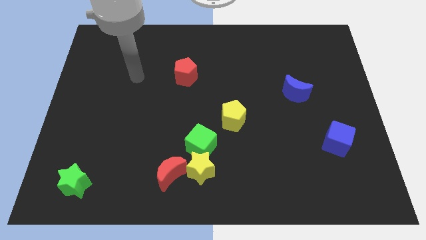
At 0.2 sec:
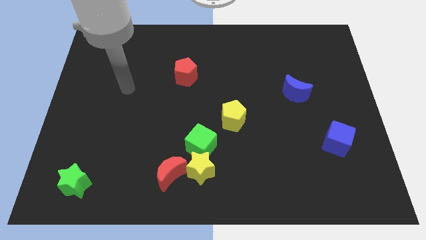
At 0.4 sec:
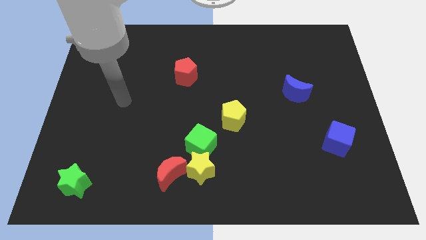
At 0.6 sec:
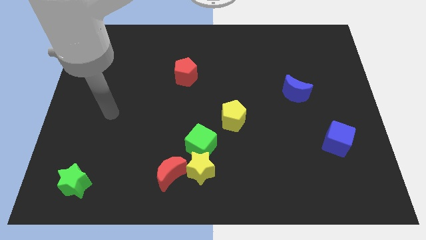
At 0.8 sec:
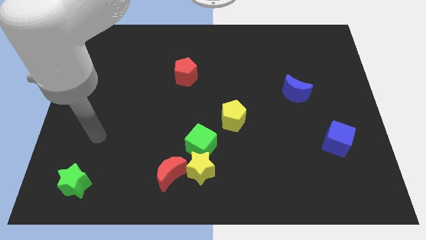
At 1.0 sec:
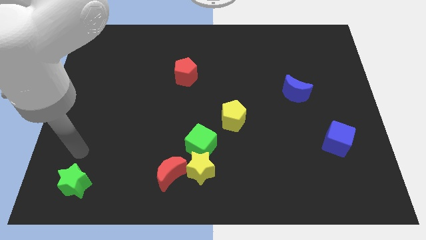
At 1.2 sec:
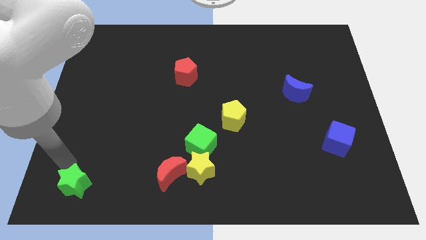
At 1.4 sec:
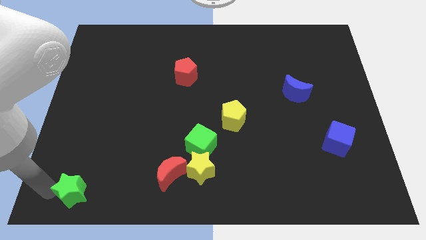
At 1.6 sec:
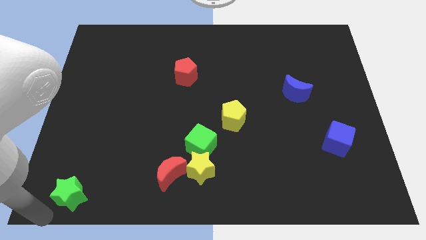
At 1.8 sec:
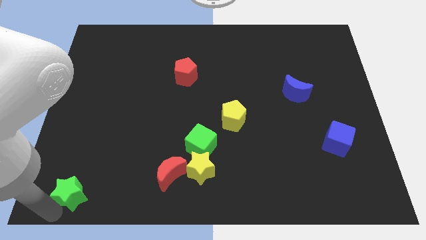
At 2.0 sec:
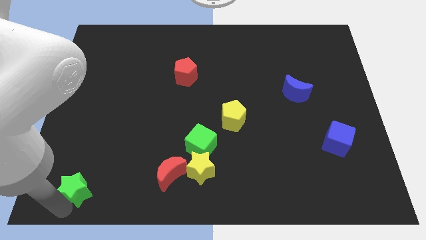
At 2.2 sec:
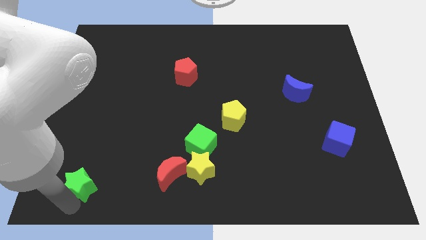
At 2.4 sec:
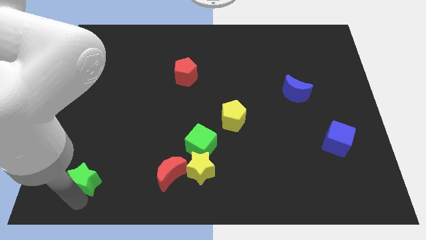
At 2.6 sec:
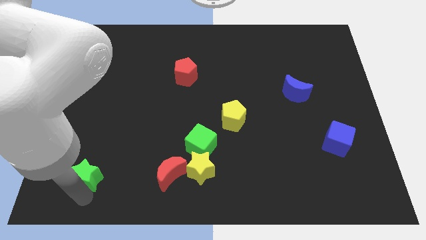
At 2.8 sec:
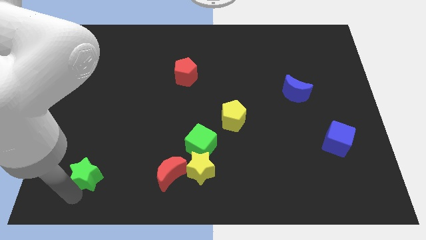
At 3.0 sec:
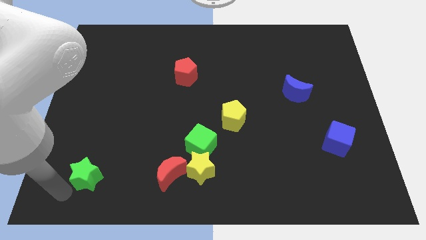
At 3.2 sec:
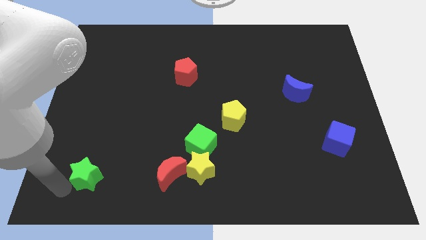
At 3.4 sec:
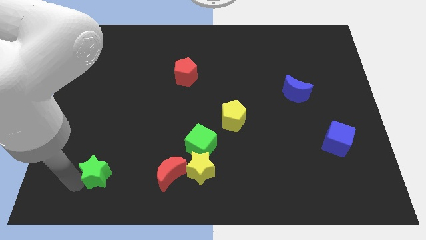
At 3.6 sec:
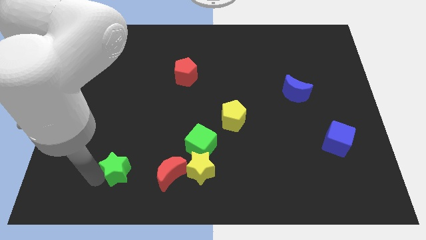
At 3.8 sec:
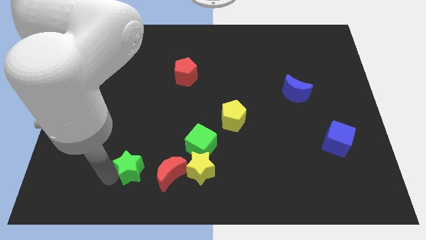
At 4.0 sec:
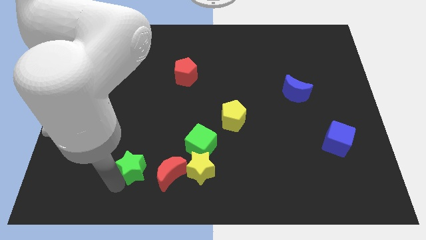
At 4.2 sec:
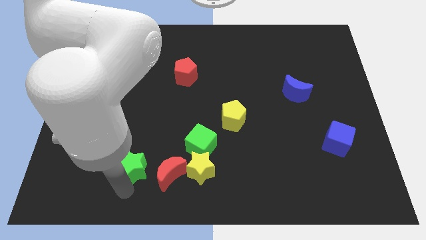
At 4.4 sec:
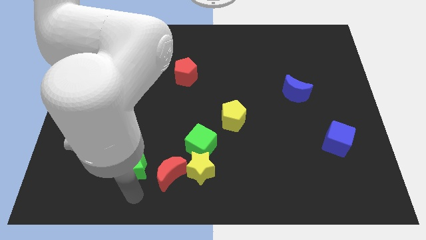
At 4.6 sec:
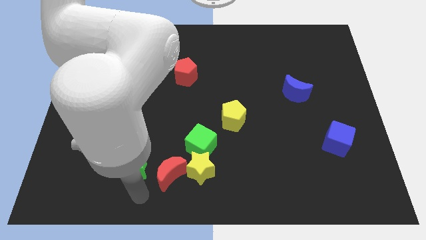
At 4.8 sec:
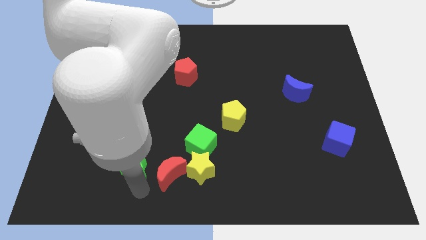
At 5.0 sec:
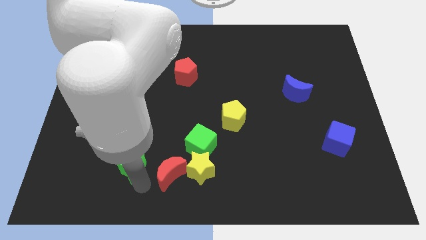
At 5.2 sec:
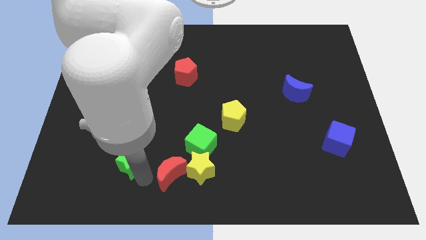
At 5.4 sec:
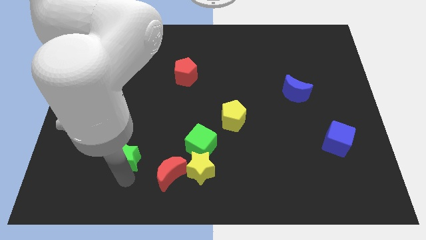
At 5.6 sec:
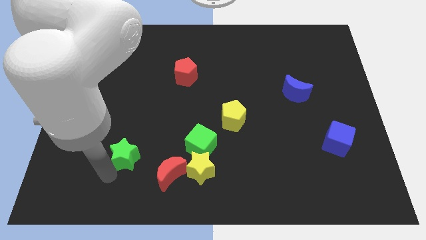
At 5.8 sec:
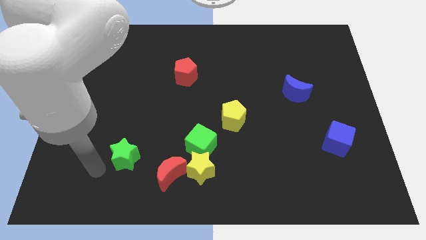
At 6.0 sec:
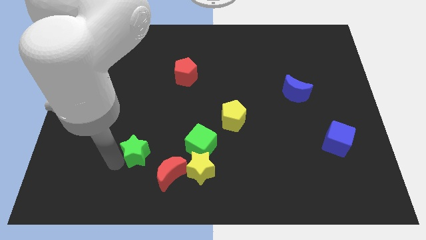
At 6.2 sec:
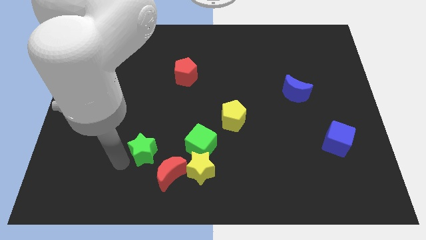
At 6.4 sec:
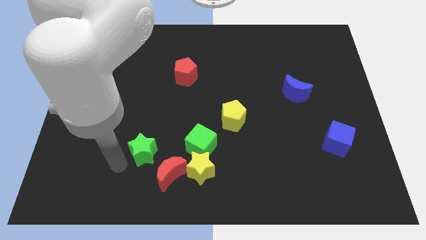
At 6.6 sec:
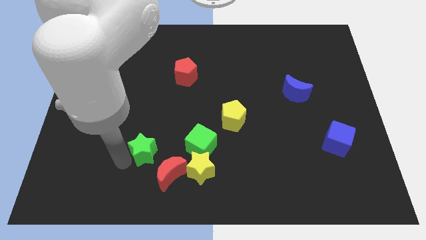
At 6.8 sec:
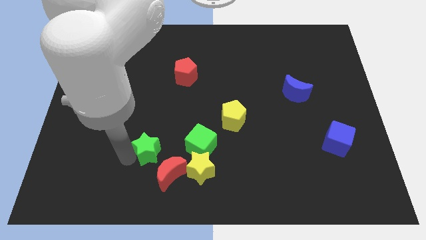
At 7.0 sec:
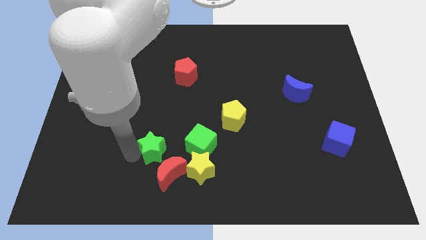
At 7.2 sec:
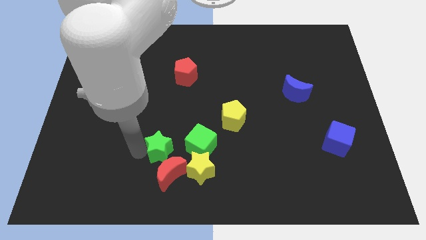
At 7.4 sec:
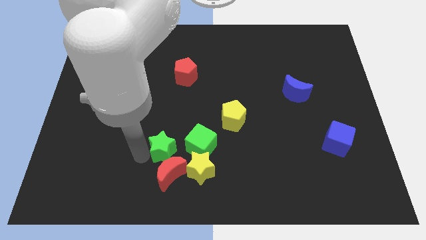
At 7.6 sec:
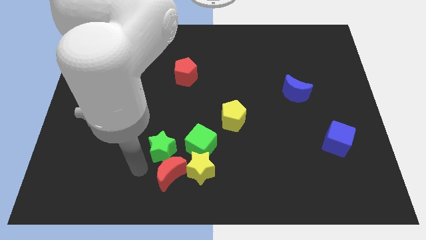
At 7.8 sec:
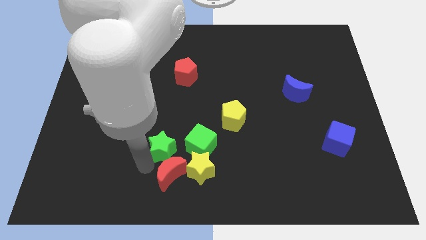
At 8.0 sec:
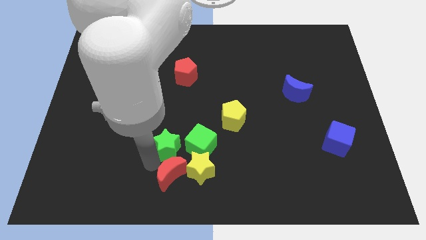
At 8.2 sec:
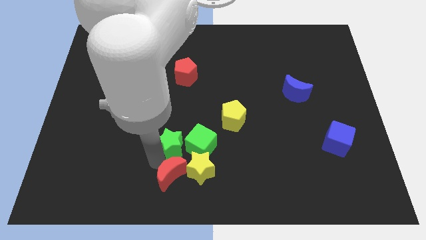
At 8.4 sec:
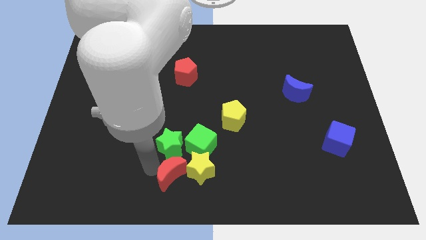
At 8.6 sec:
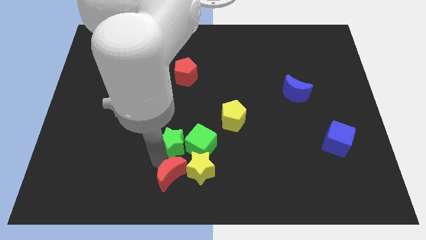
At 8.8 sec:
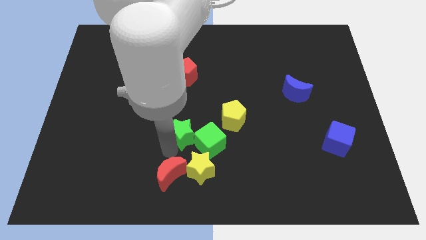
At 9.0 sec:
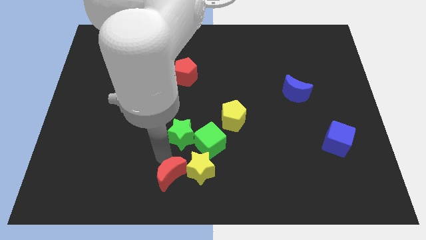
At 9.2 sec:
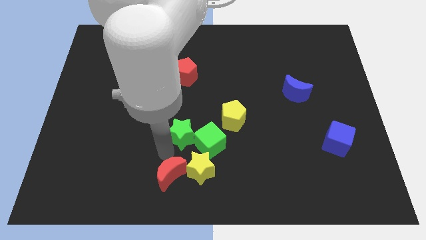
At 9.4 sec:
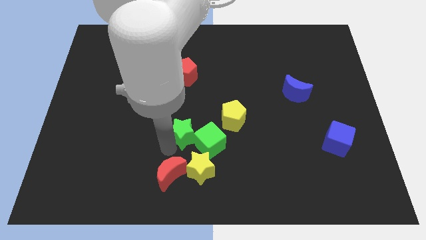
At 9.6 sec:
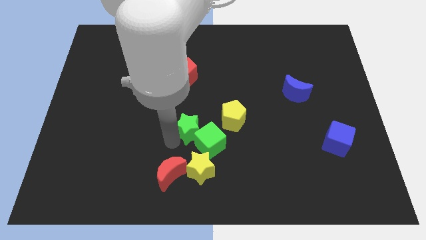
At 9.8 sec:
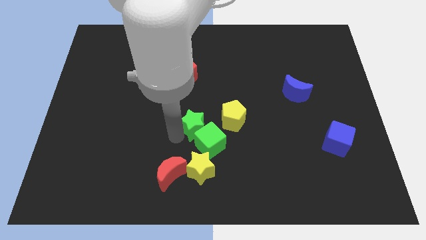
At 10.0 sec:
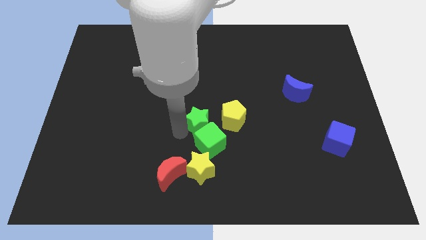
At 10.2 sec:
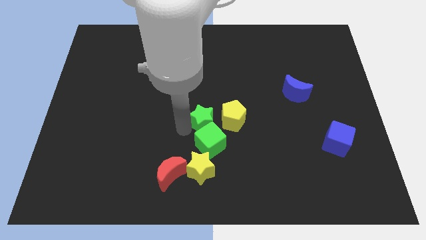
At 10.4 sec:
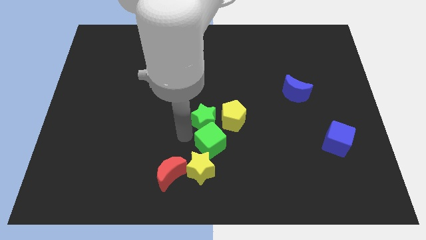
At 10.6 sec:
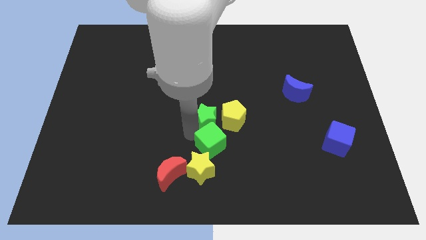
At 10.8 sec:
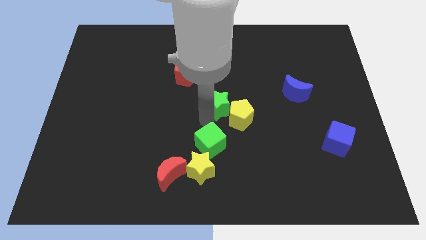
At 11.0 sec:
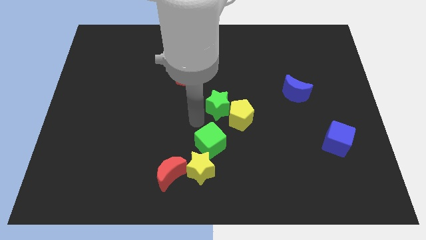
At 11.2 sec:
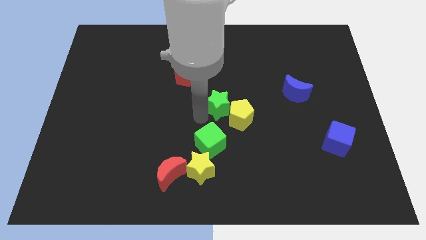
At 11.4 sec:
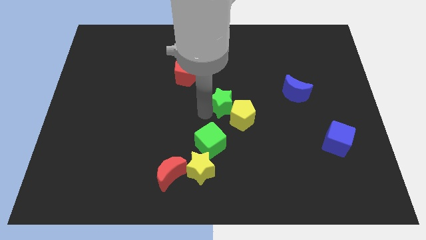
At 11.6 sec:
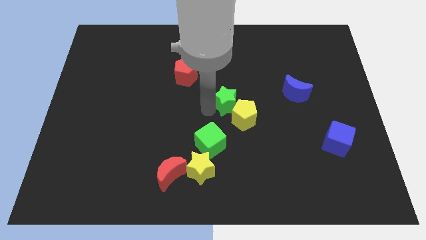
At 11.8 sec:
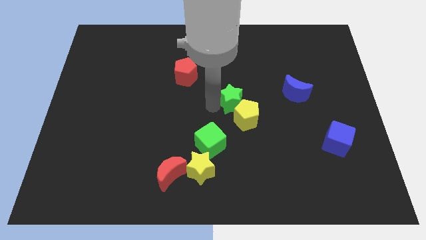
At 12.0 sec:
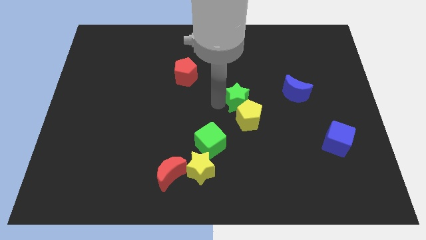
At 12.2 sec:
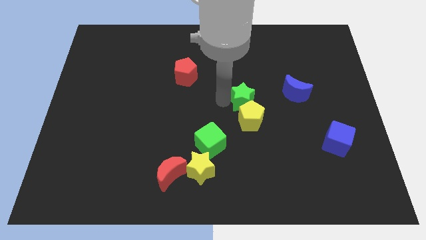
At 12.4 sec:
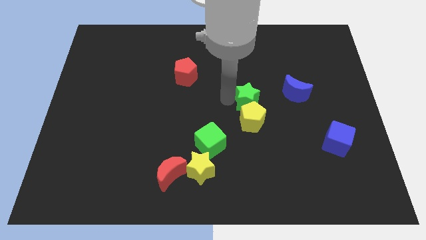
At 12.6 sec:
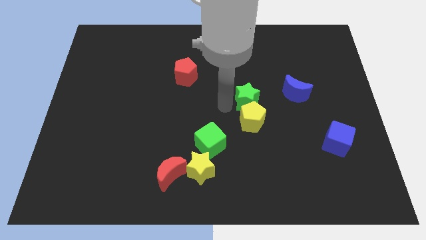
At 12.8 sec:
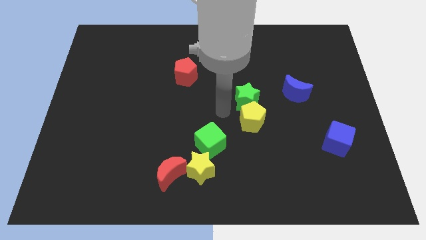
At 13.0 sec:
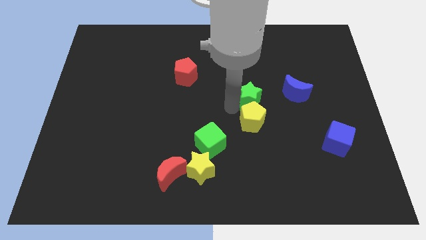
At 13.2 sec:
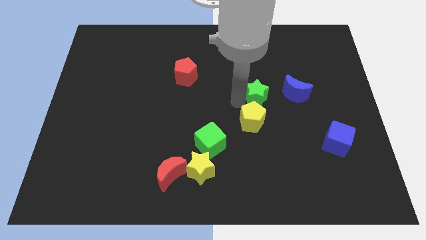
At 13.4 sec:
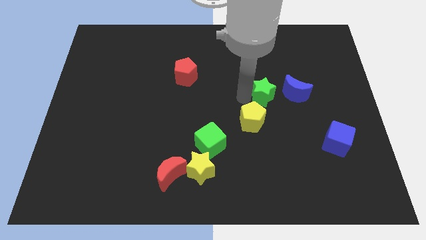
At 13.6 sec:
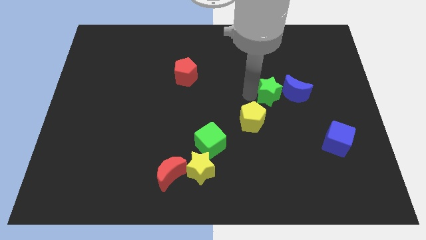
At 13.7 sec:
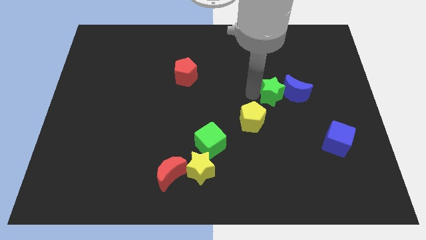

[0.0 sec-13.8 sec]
slide the green star to the blue moon

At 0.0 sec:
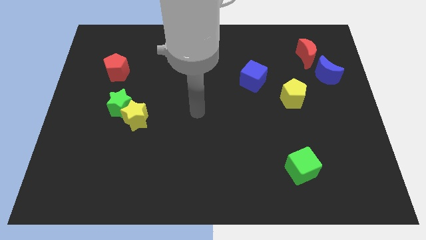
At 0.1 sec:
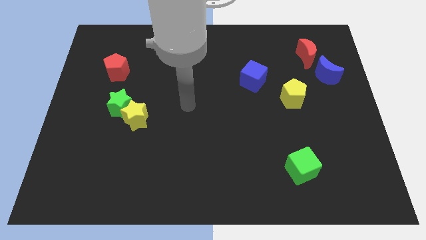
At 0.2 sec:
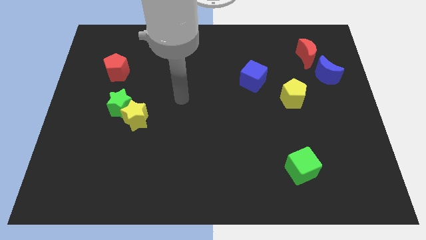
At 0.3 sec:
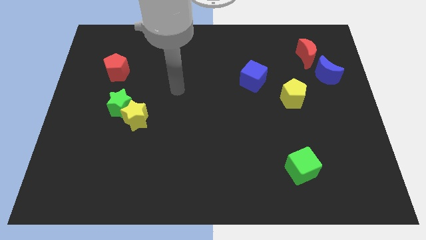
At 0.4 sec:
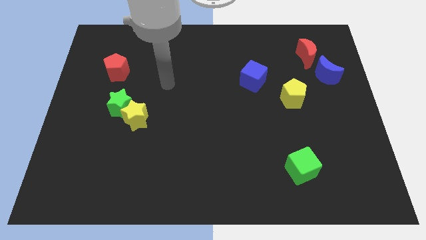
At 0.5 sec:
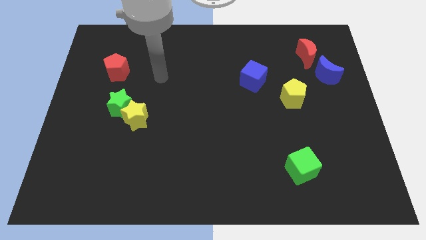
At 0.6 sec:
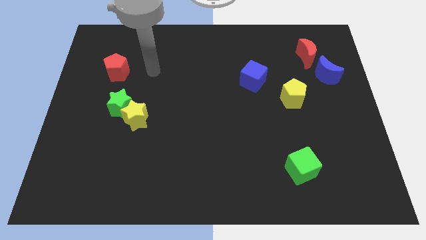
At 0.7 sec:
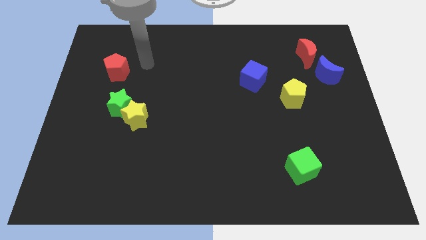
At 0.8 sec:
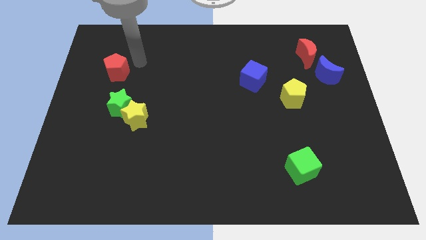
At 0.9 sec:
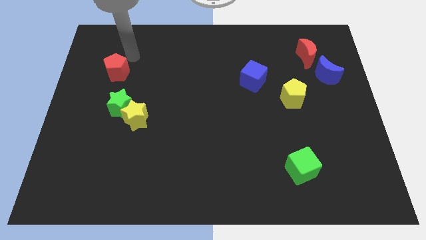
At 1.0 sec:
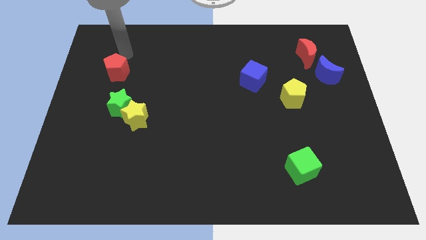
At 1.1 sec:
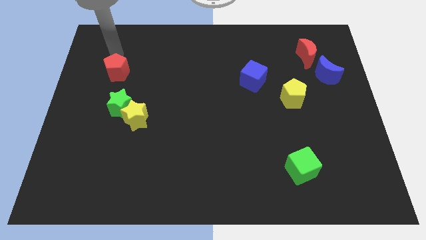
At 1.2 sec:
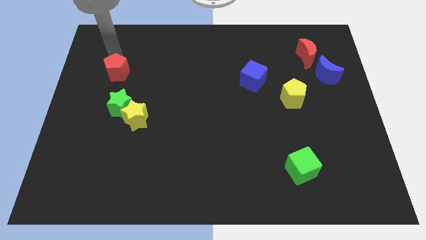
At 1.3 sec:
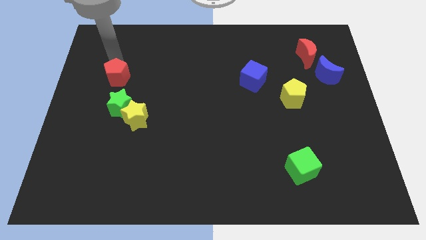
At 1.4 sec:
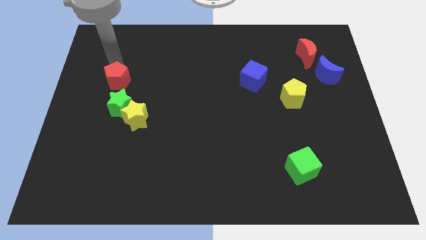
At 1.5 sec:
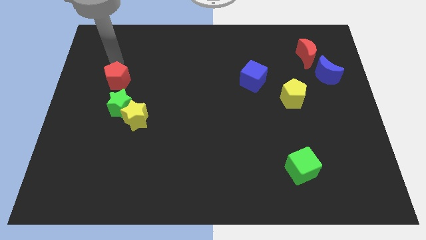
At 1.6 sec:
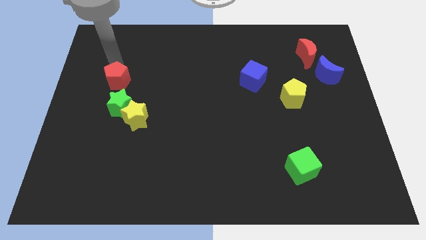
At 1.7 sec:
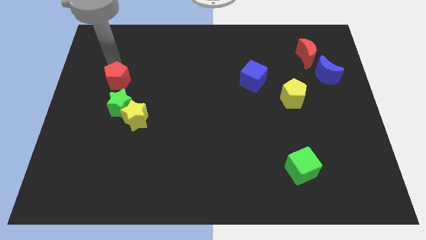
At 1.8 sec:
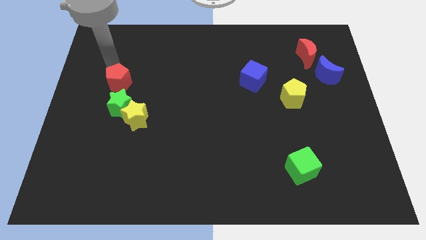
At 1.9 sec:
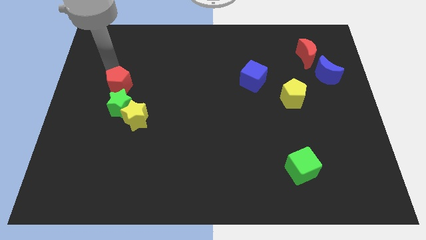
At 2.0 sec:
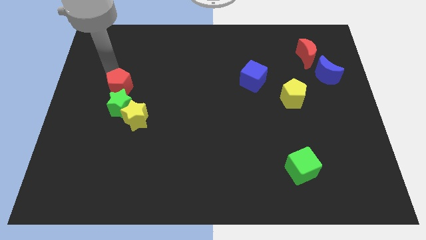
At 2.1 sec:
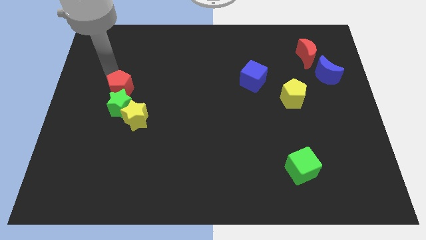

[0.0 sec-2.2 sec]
push the red pentagon to the green star
